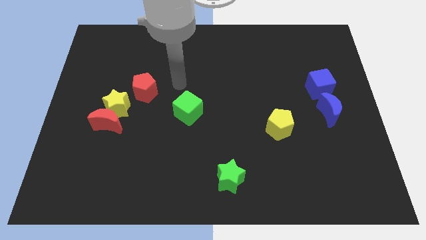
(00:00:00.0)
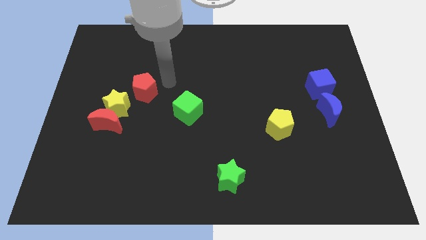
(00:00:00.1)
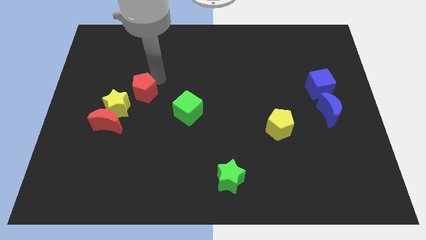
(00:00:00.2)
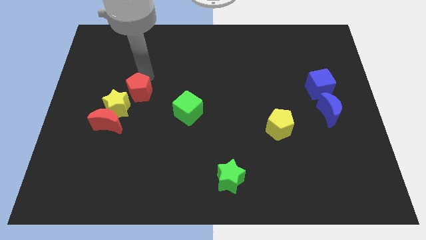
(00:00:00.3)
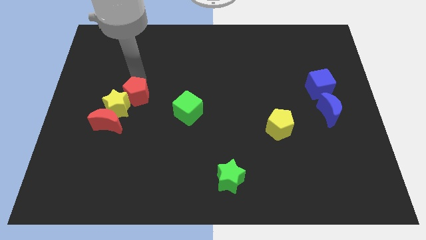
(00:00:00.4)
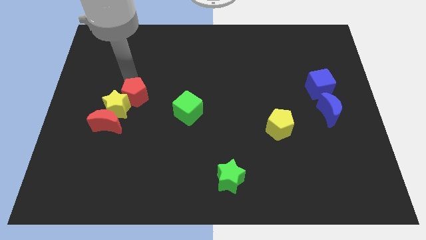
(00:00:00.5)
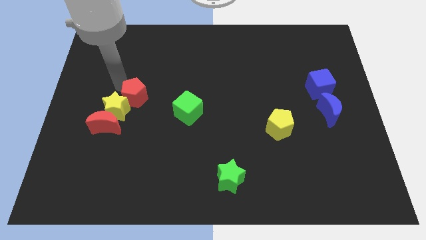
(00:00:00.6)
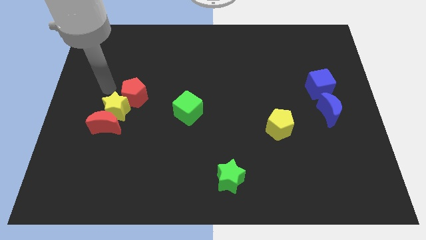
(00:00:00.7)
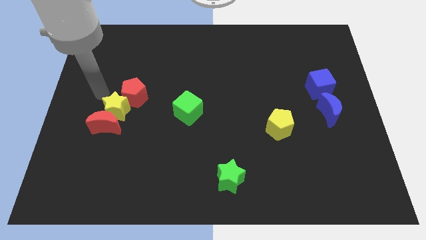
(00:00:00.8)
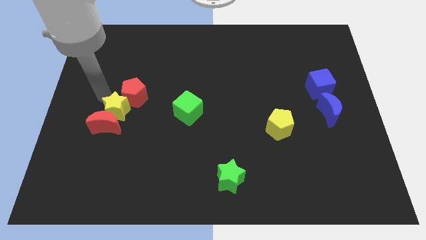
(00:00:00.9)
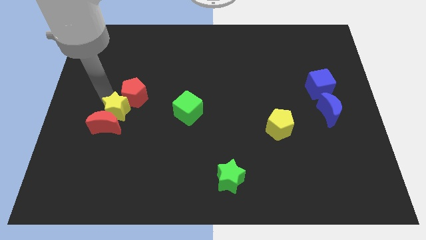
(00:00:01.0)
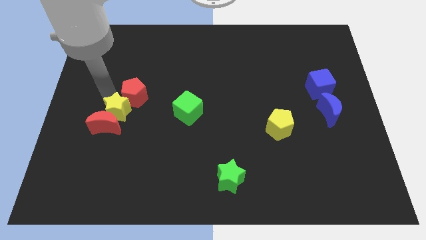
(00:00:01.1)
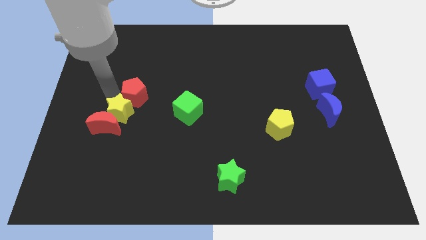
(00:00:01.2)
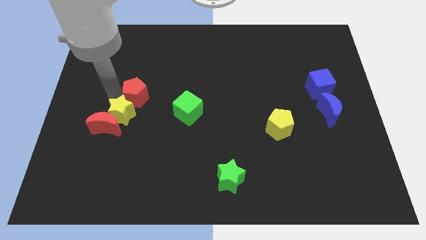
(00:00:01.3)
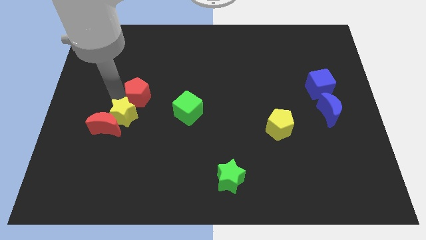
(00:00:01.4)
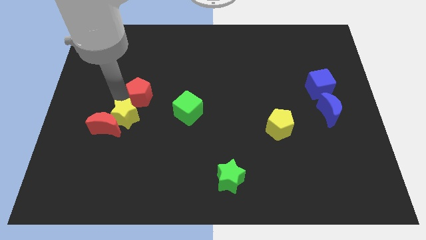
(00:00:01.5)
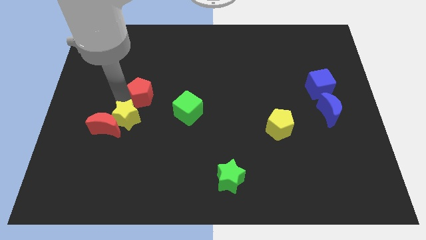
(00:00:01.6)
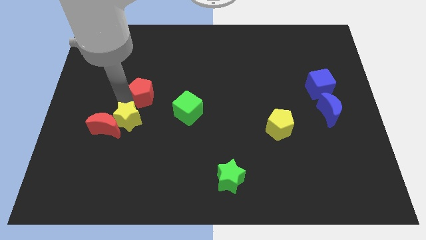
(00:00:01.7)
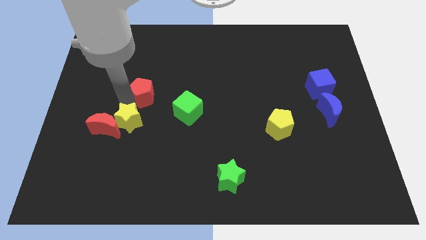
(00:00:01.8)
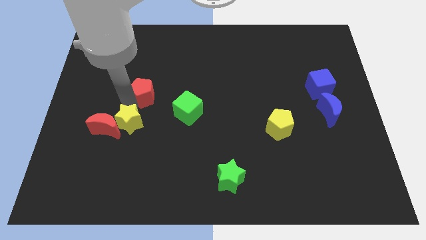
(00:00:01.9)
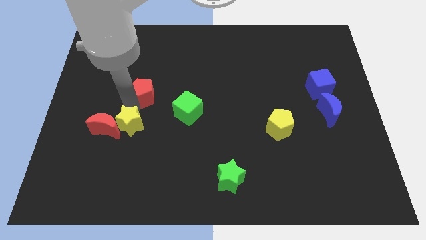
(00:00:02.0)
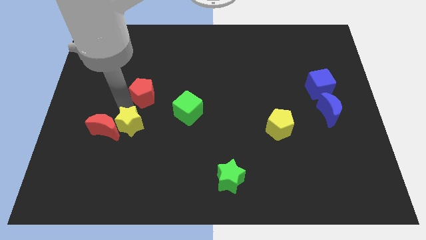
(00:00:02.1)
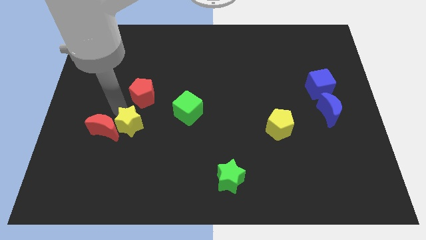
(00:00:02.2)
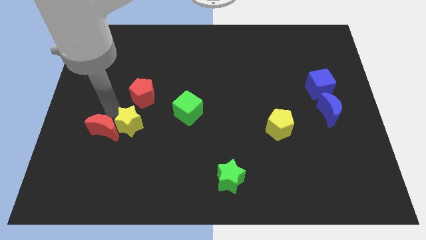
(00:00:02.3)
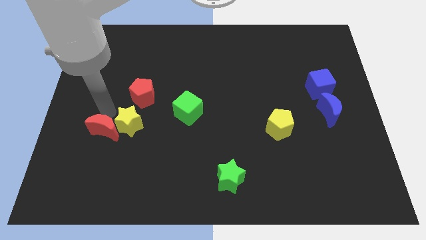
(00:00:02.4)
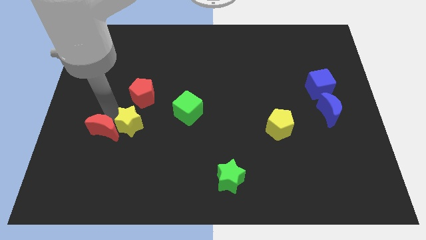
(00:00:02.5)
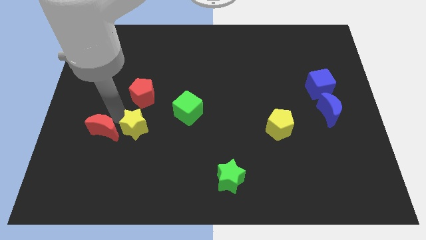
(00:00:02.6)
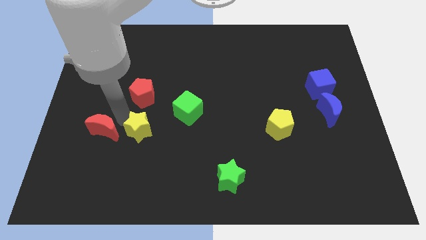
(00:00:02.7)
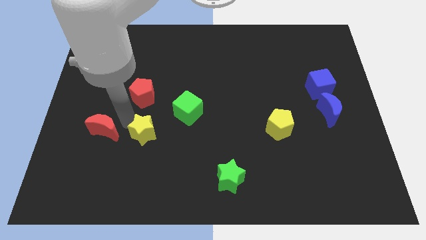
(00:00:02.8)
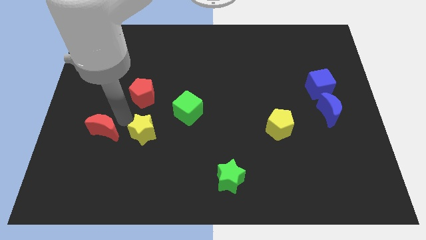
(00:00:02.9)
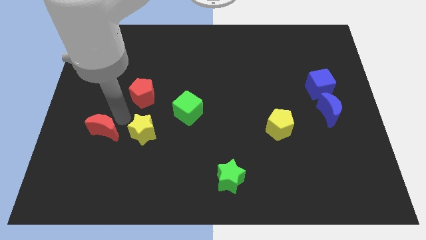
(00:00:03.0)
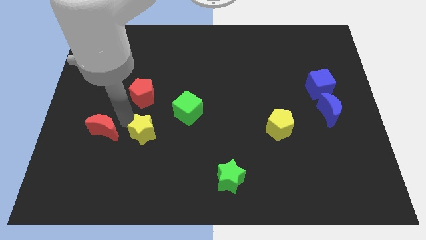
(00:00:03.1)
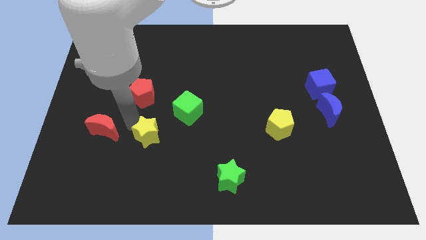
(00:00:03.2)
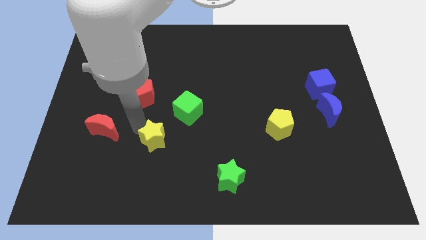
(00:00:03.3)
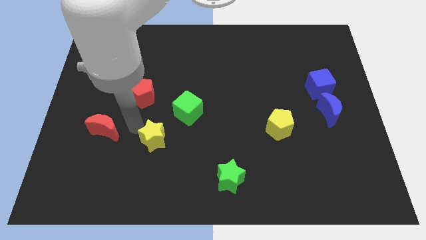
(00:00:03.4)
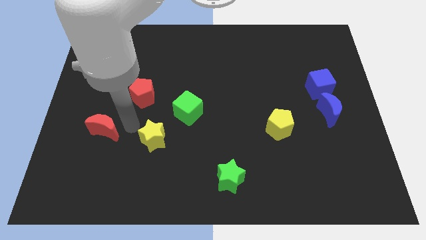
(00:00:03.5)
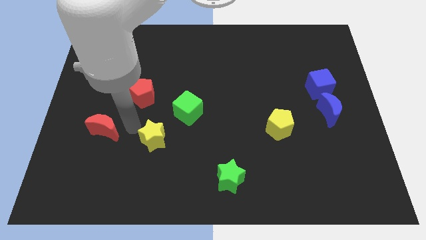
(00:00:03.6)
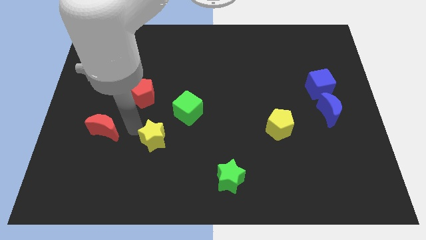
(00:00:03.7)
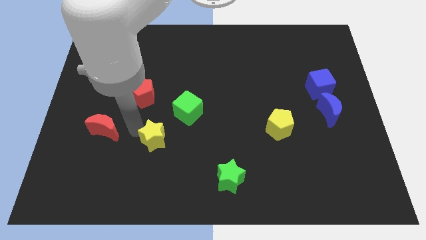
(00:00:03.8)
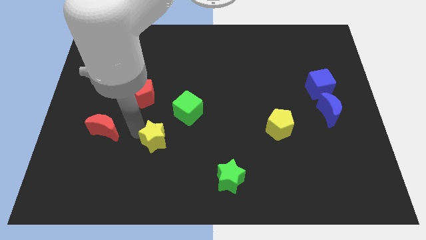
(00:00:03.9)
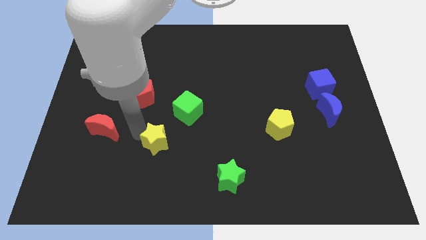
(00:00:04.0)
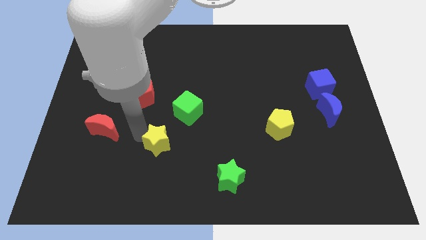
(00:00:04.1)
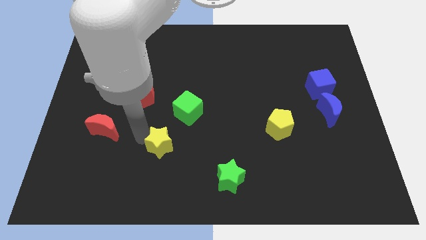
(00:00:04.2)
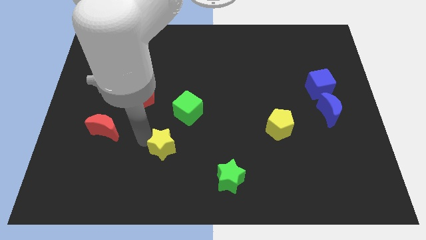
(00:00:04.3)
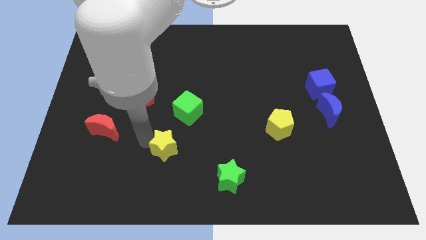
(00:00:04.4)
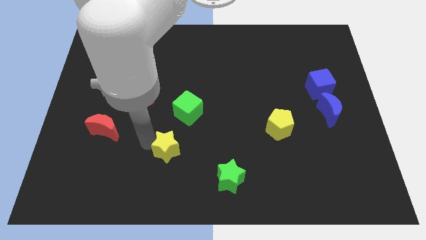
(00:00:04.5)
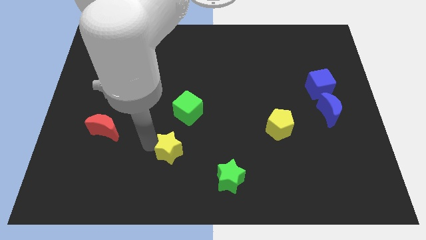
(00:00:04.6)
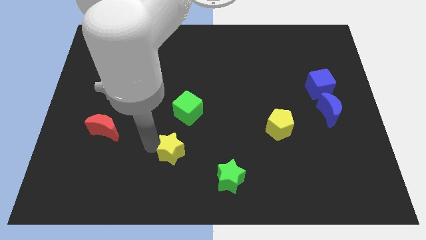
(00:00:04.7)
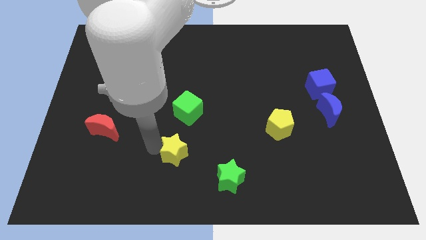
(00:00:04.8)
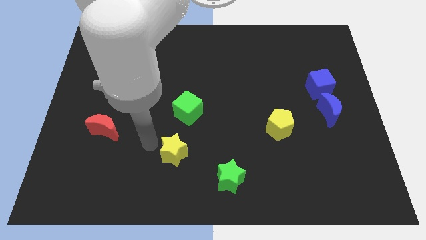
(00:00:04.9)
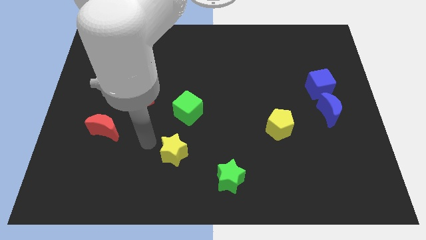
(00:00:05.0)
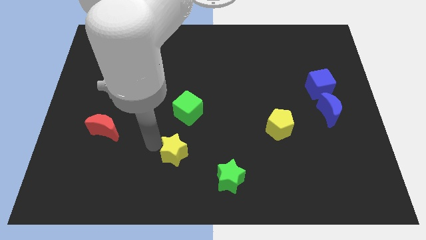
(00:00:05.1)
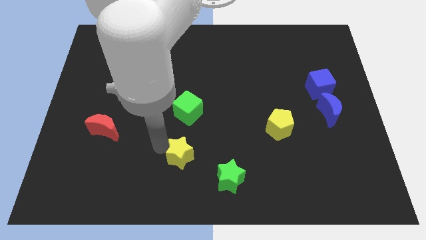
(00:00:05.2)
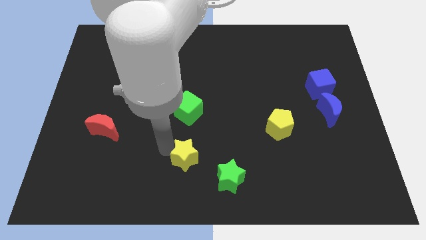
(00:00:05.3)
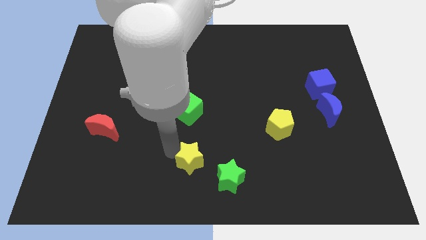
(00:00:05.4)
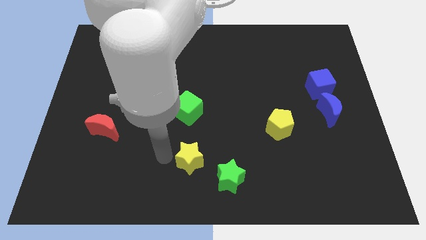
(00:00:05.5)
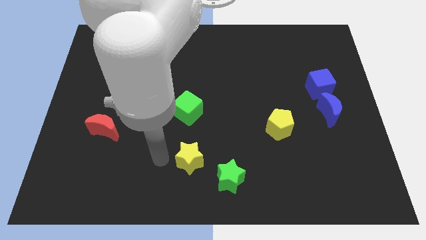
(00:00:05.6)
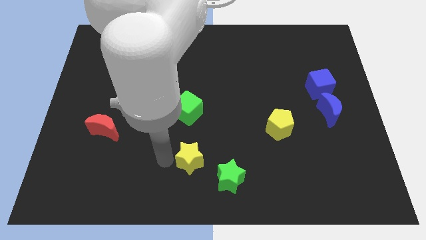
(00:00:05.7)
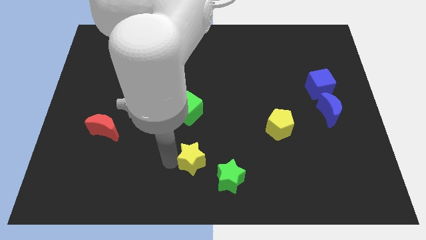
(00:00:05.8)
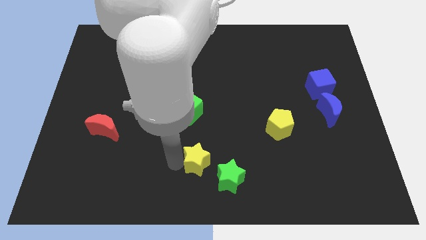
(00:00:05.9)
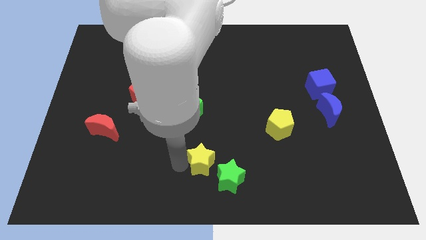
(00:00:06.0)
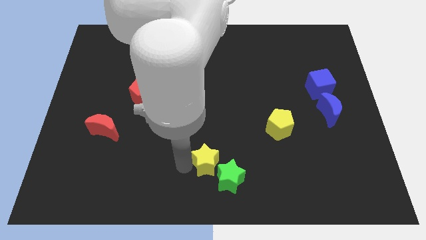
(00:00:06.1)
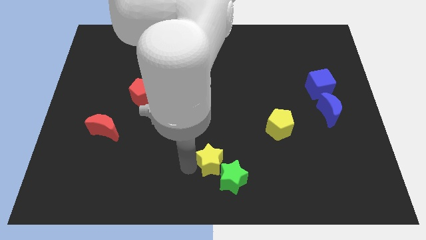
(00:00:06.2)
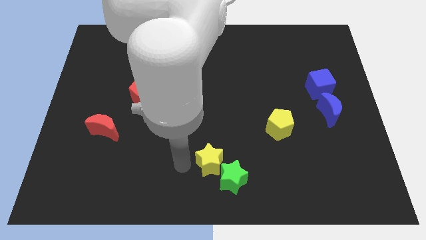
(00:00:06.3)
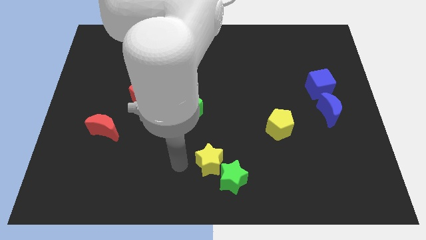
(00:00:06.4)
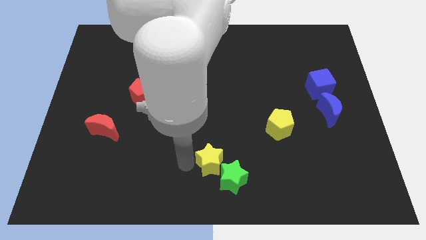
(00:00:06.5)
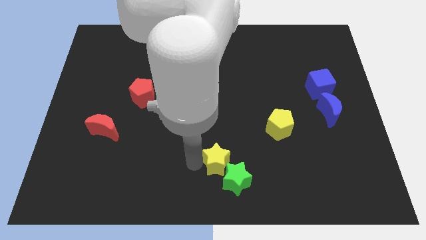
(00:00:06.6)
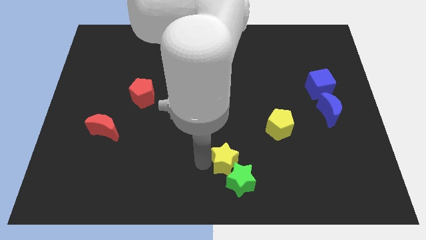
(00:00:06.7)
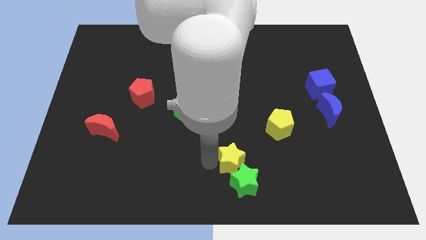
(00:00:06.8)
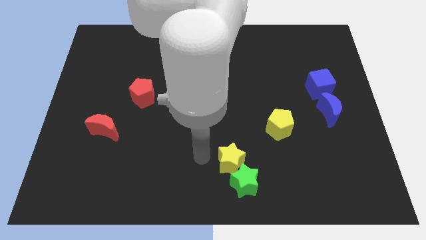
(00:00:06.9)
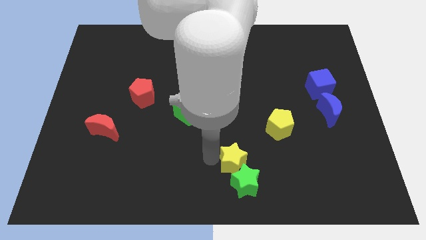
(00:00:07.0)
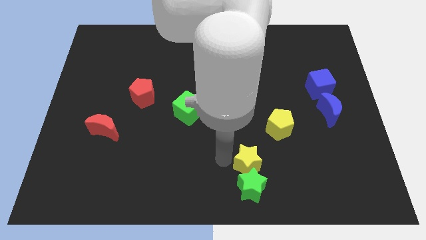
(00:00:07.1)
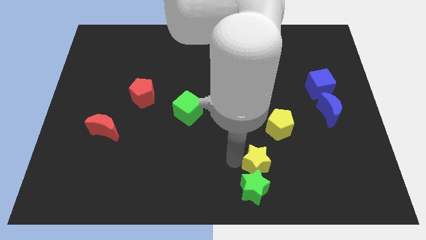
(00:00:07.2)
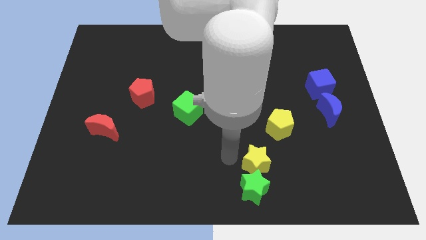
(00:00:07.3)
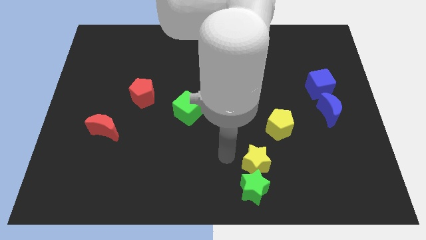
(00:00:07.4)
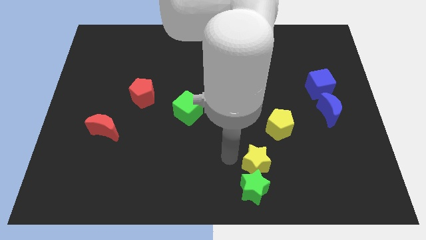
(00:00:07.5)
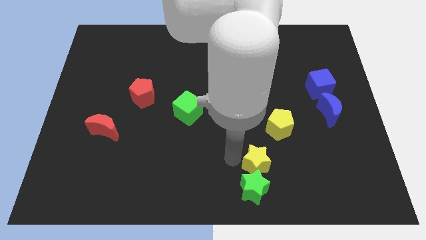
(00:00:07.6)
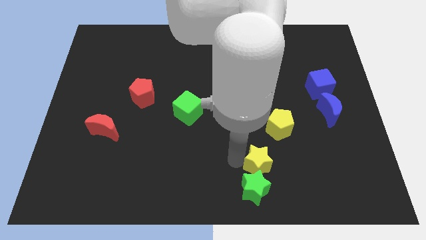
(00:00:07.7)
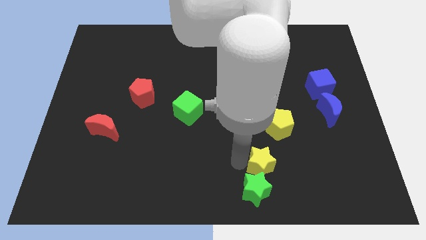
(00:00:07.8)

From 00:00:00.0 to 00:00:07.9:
move the yellow star below the yellow pentagon
